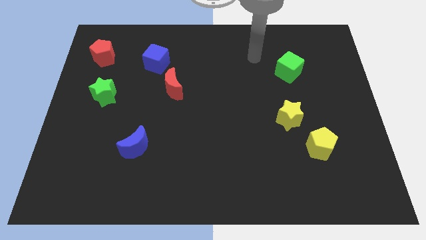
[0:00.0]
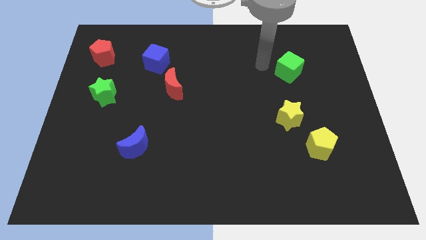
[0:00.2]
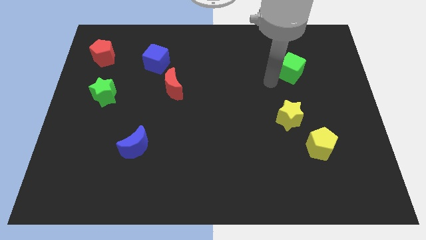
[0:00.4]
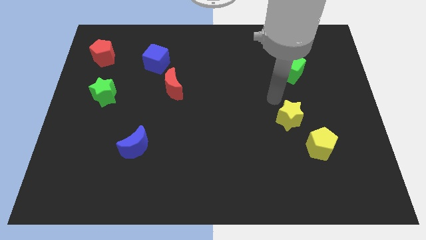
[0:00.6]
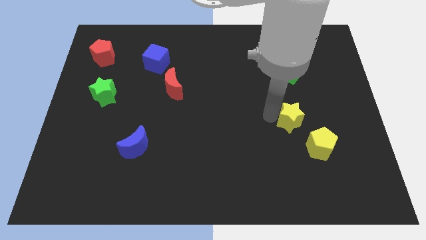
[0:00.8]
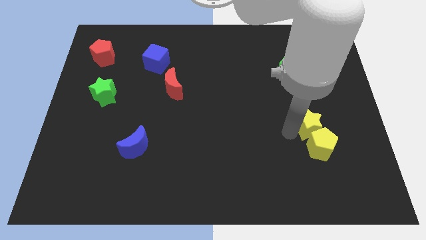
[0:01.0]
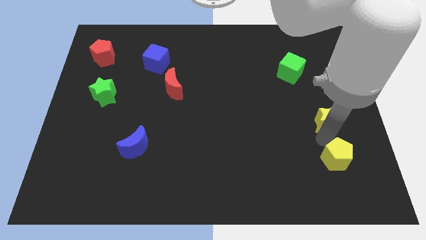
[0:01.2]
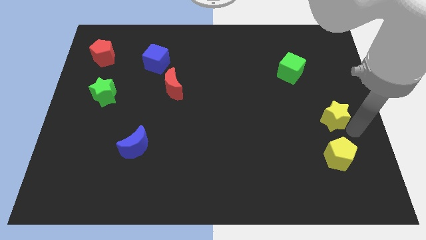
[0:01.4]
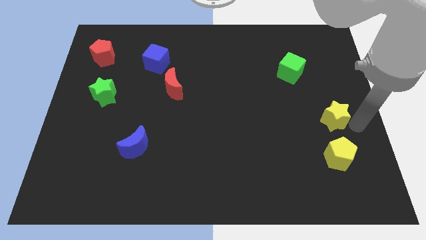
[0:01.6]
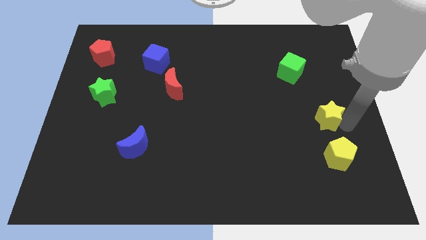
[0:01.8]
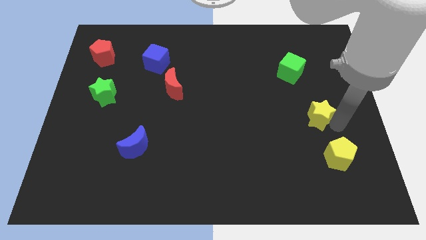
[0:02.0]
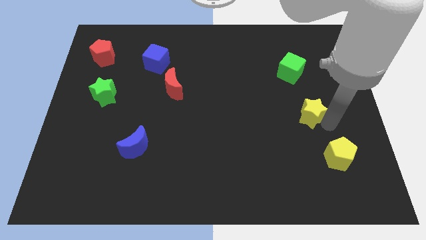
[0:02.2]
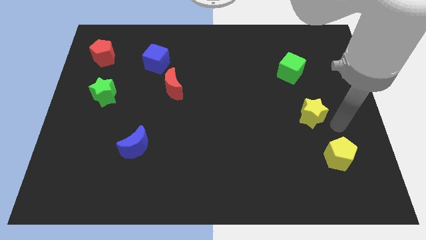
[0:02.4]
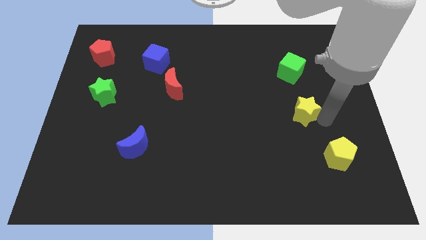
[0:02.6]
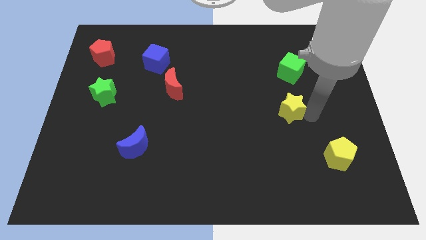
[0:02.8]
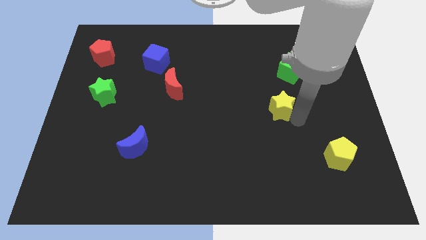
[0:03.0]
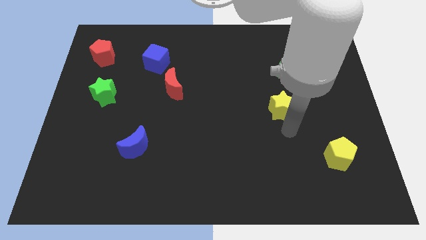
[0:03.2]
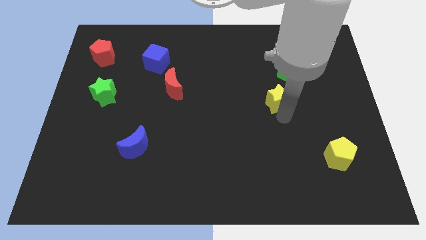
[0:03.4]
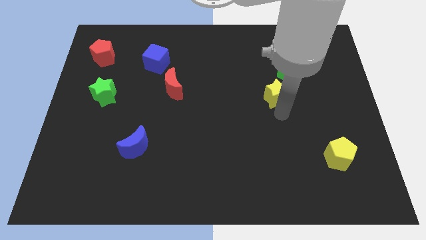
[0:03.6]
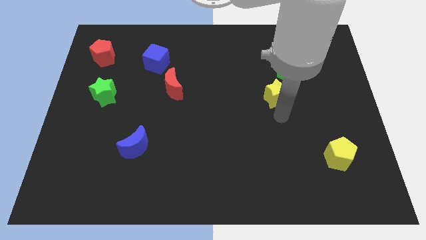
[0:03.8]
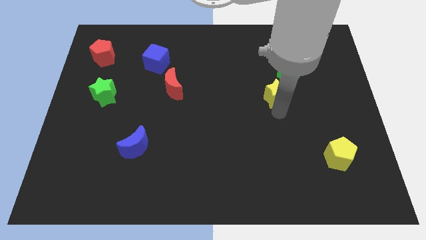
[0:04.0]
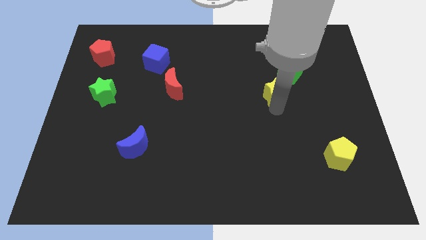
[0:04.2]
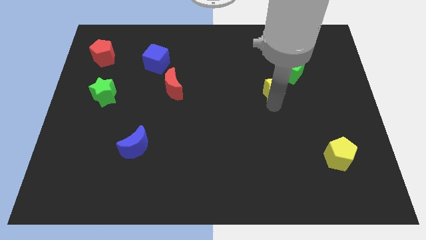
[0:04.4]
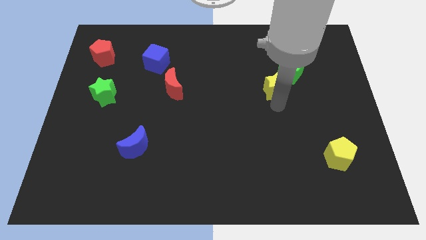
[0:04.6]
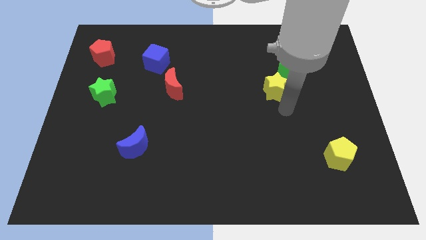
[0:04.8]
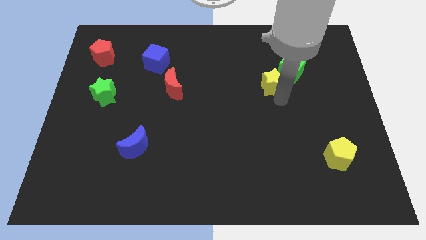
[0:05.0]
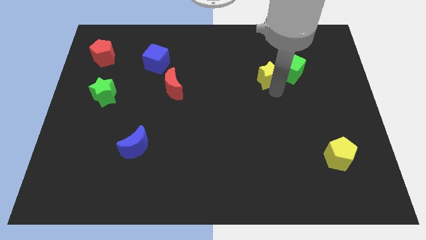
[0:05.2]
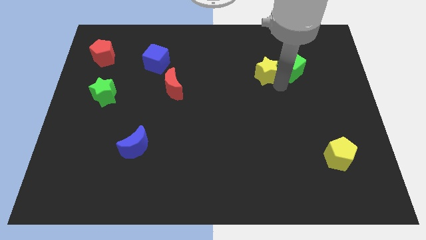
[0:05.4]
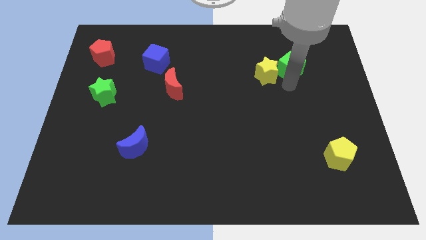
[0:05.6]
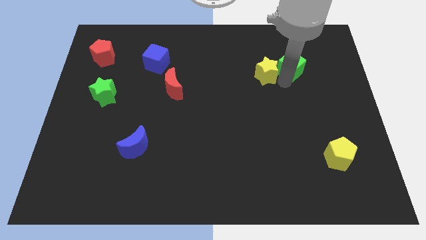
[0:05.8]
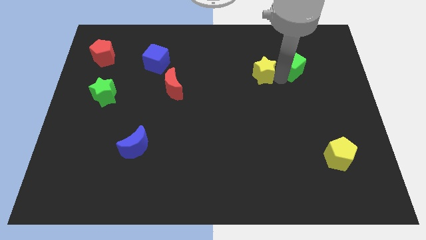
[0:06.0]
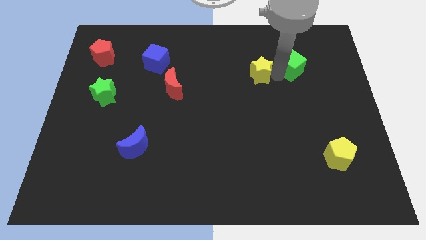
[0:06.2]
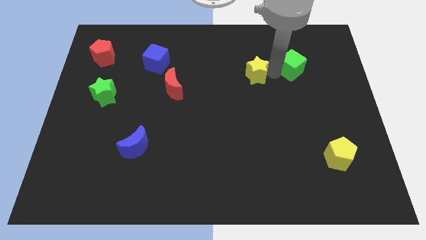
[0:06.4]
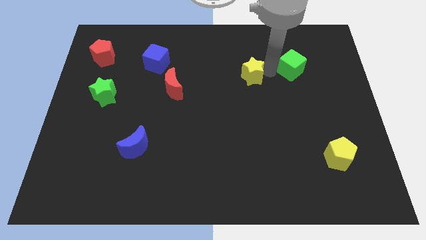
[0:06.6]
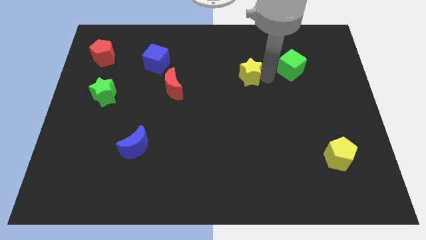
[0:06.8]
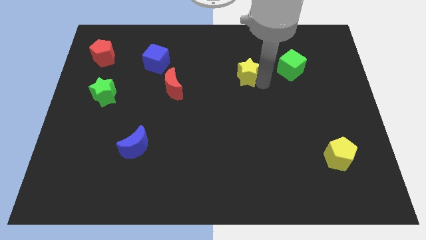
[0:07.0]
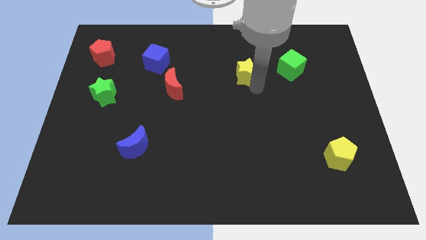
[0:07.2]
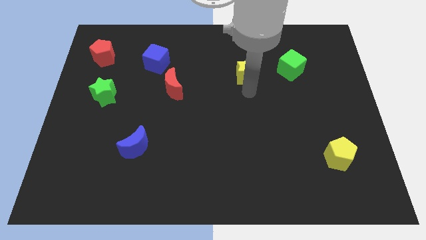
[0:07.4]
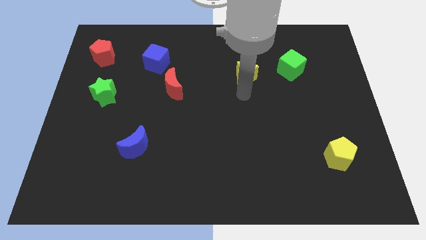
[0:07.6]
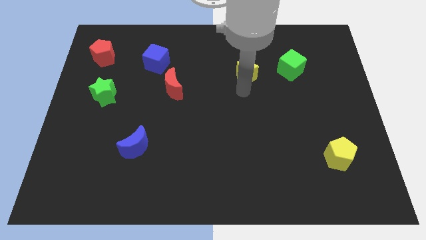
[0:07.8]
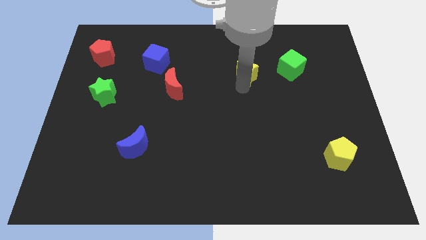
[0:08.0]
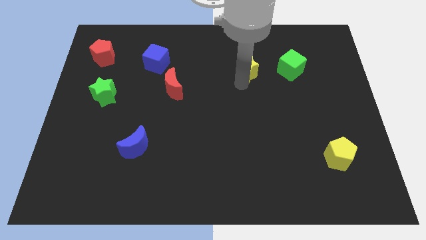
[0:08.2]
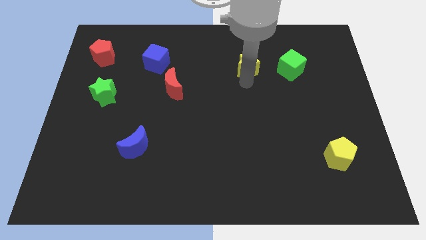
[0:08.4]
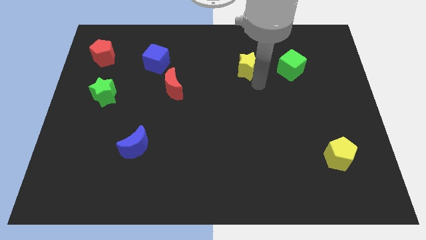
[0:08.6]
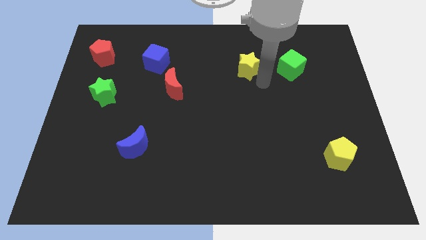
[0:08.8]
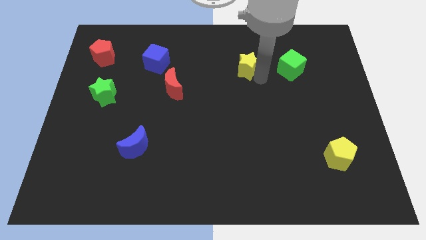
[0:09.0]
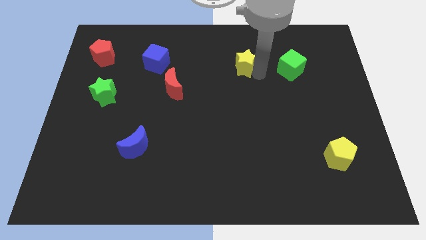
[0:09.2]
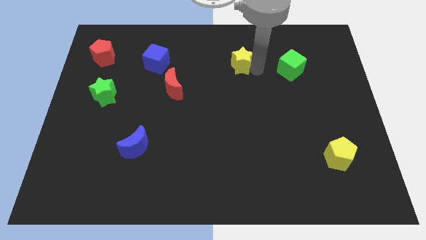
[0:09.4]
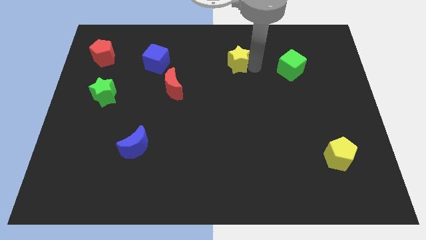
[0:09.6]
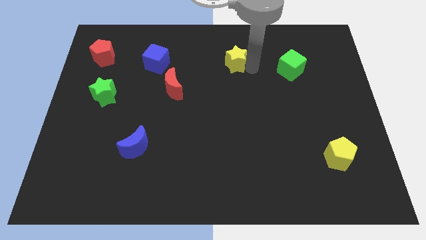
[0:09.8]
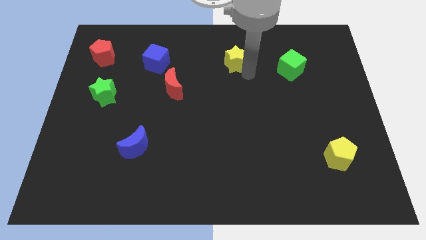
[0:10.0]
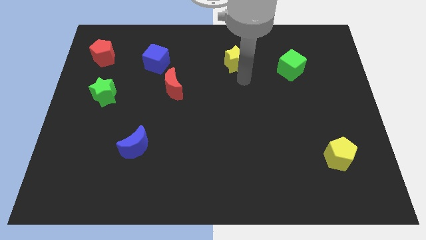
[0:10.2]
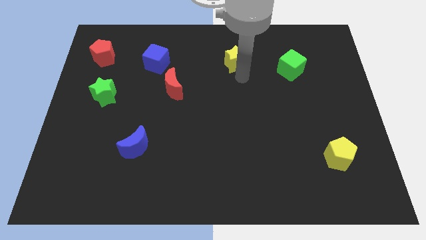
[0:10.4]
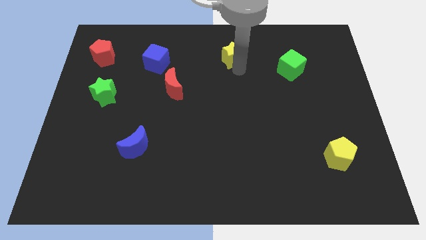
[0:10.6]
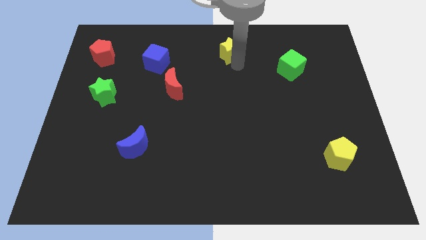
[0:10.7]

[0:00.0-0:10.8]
push the yellow star to the top side
